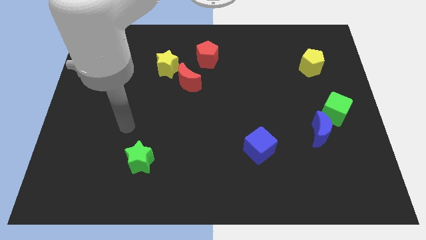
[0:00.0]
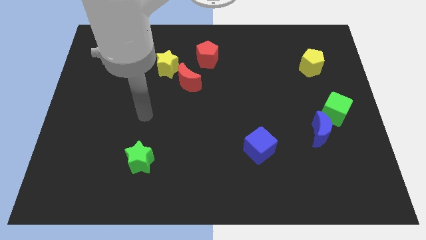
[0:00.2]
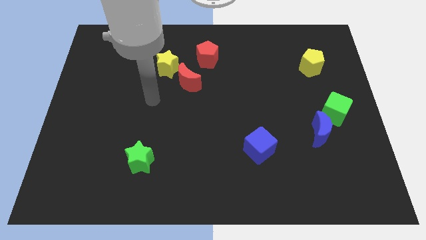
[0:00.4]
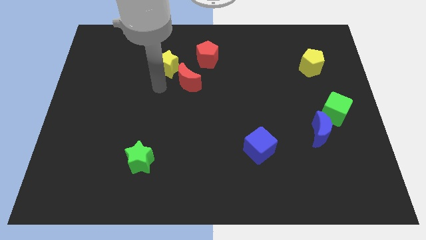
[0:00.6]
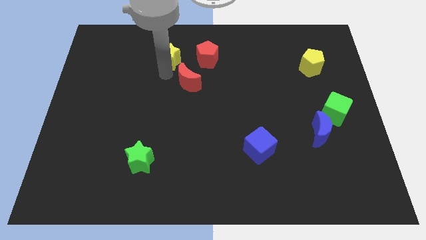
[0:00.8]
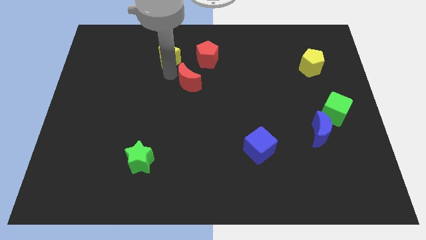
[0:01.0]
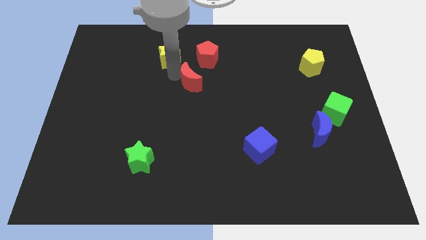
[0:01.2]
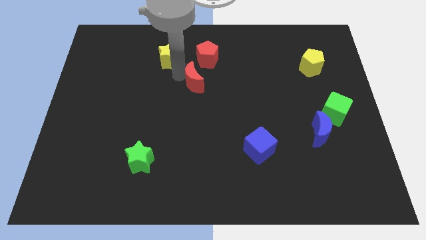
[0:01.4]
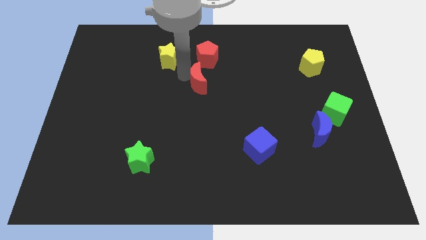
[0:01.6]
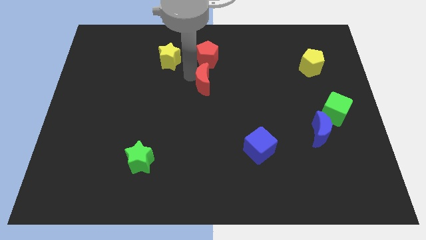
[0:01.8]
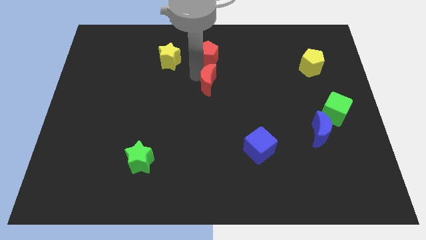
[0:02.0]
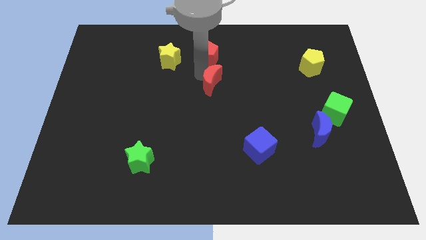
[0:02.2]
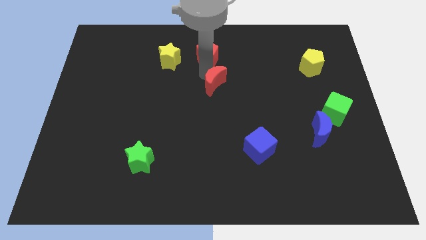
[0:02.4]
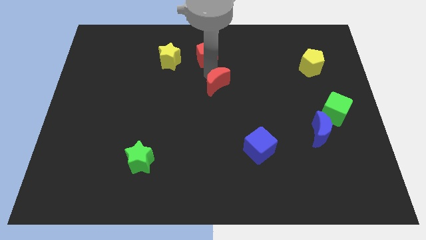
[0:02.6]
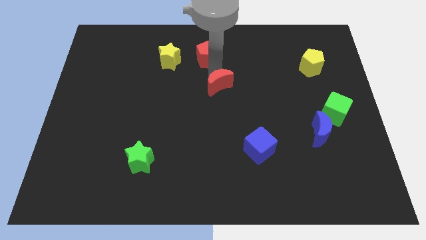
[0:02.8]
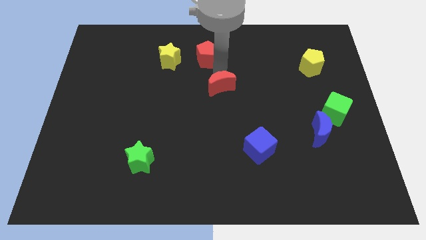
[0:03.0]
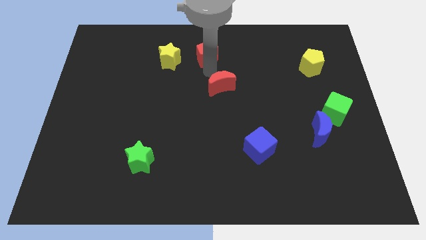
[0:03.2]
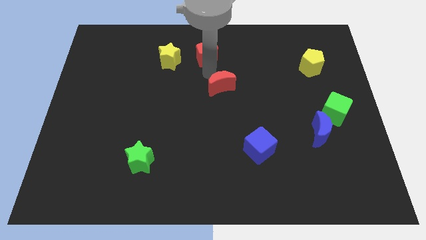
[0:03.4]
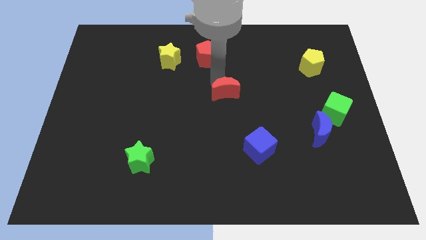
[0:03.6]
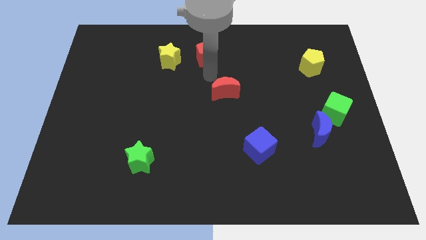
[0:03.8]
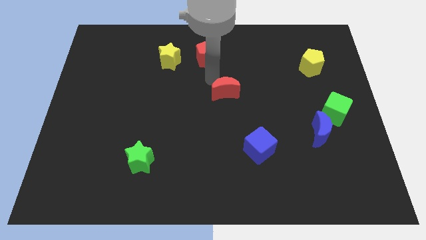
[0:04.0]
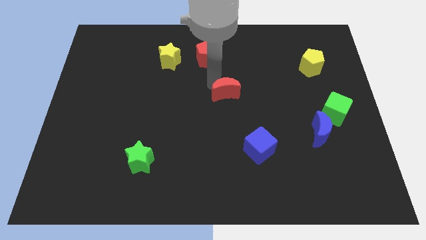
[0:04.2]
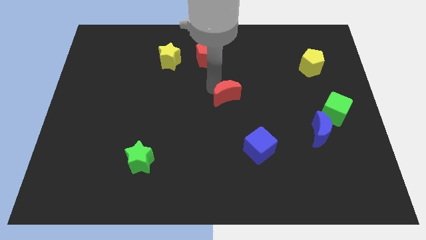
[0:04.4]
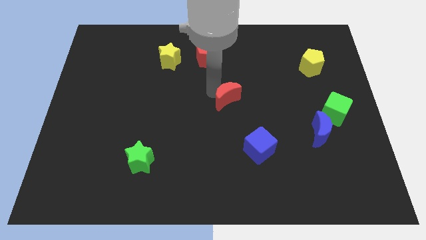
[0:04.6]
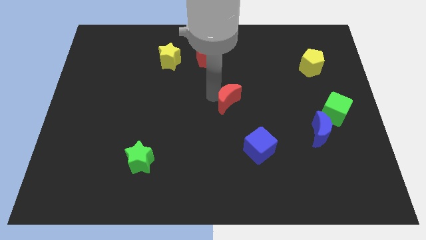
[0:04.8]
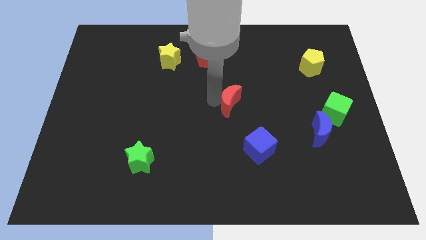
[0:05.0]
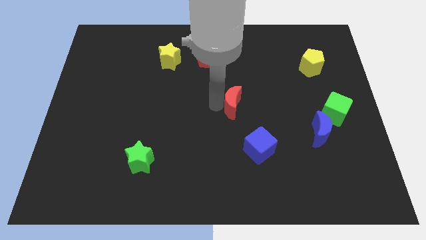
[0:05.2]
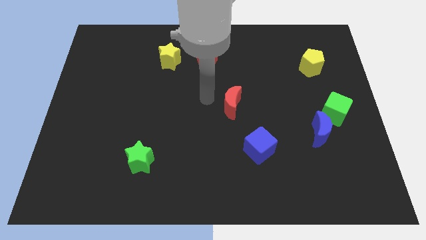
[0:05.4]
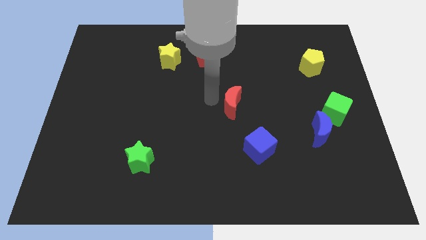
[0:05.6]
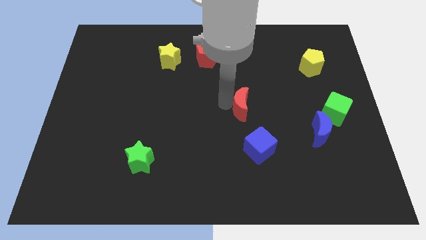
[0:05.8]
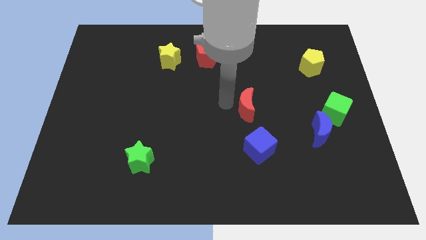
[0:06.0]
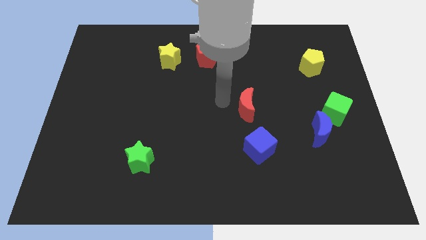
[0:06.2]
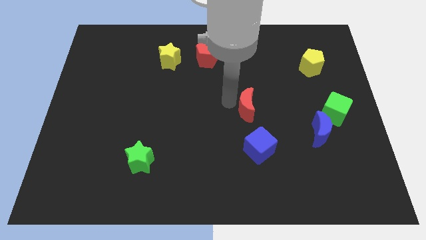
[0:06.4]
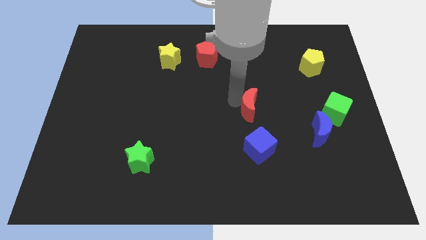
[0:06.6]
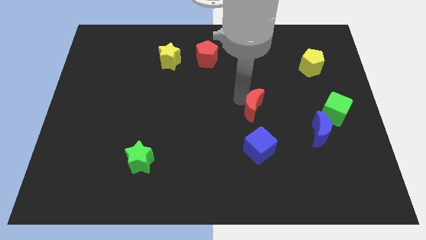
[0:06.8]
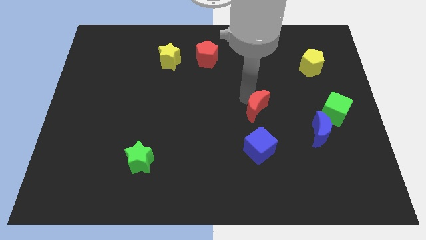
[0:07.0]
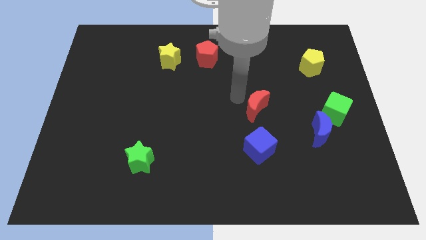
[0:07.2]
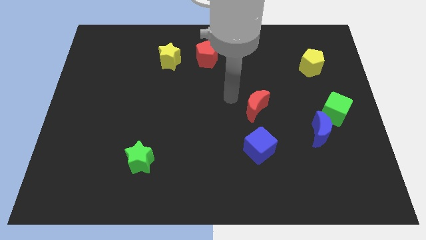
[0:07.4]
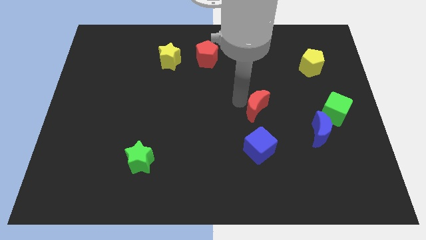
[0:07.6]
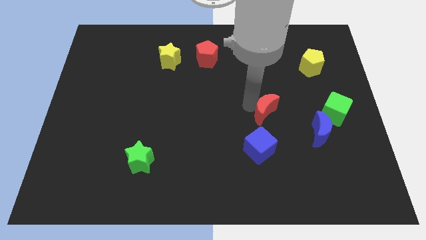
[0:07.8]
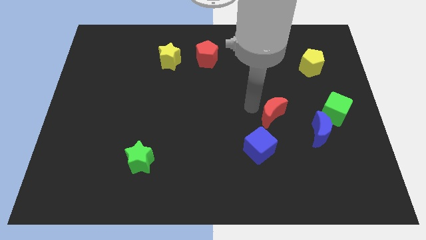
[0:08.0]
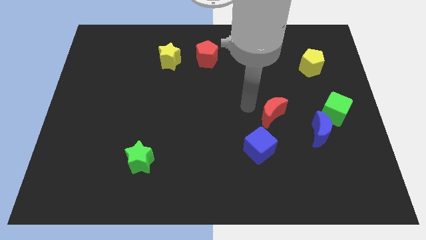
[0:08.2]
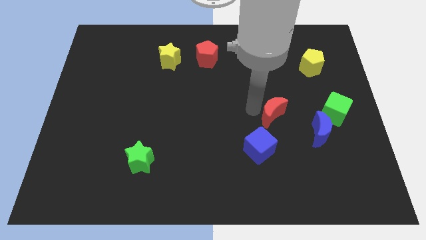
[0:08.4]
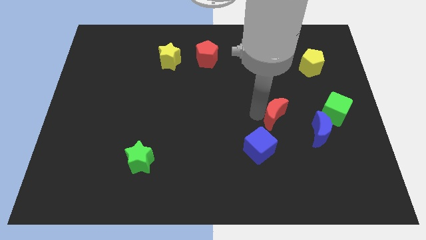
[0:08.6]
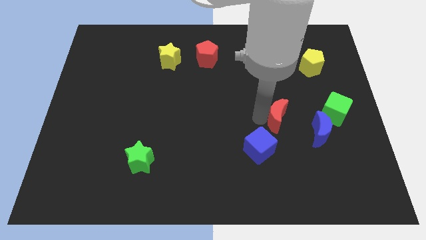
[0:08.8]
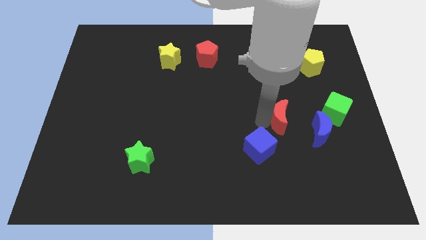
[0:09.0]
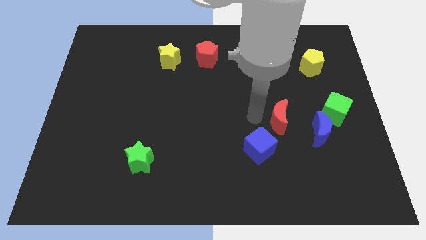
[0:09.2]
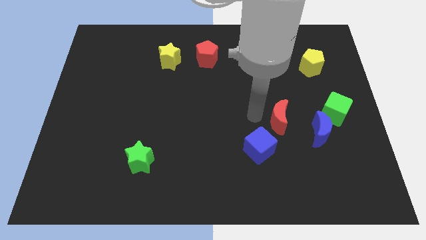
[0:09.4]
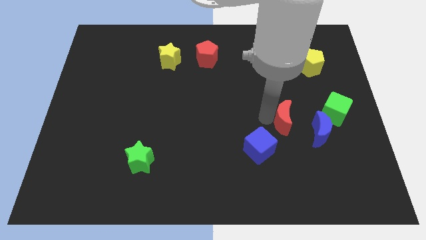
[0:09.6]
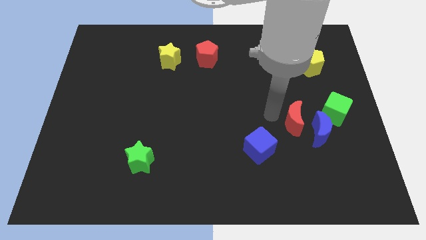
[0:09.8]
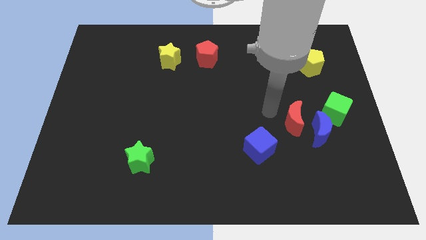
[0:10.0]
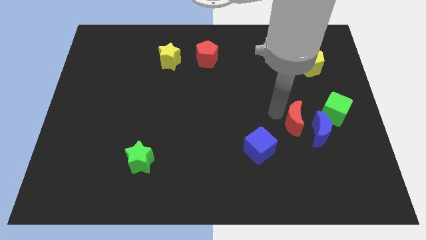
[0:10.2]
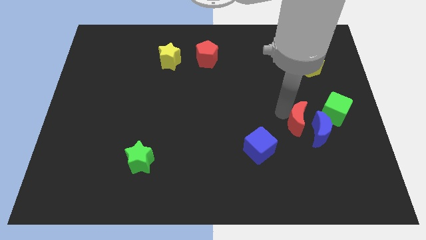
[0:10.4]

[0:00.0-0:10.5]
push the red moon to the blue moon

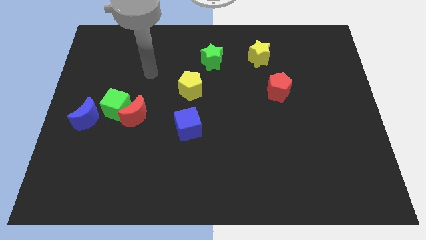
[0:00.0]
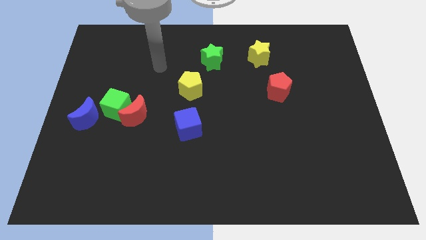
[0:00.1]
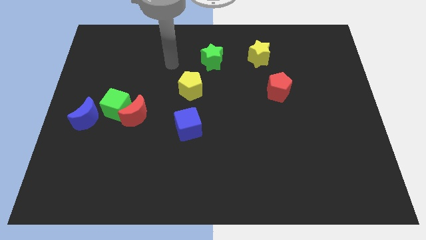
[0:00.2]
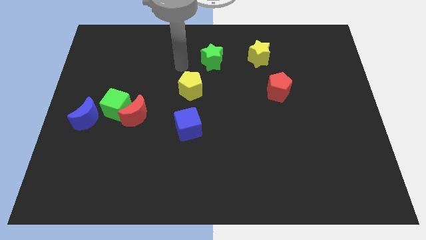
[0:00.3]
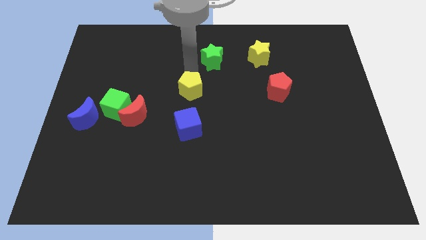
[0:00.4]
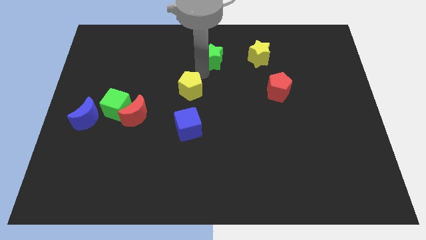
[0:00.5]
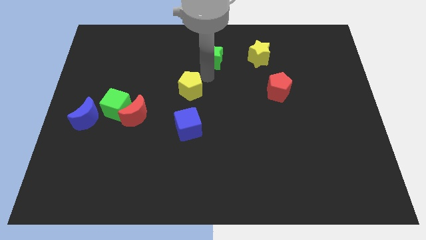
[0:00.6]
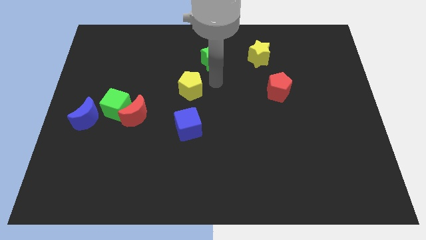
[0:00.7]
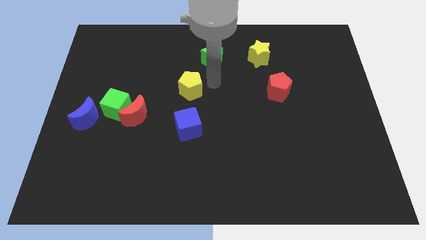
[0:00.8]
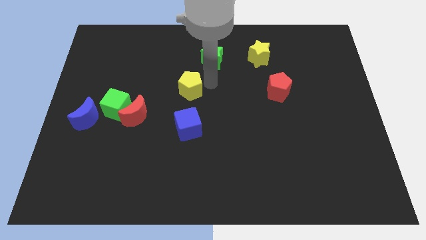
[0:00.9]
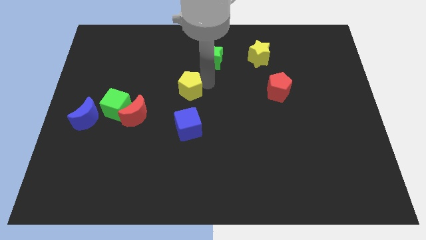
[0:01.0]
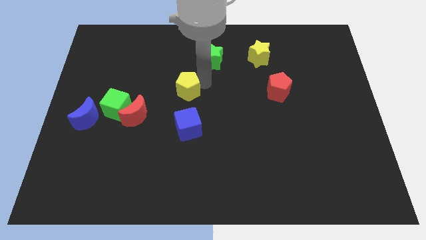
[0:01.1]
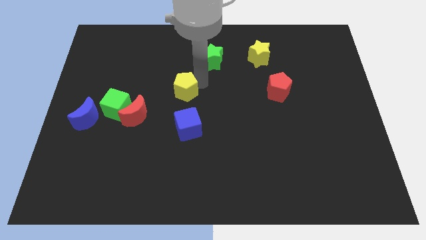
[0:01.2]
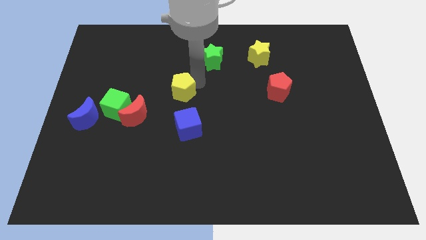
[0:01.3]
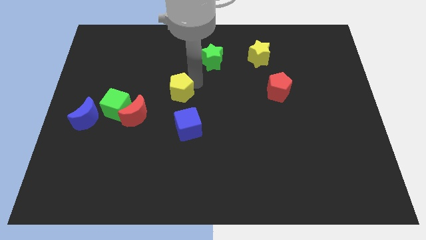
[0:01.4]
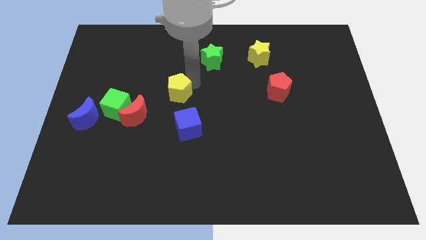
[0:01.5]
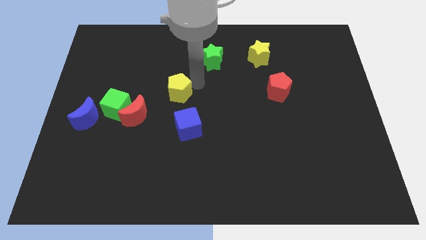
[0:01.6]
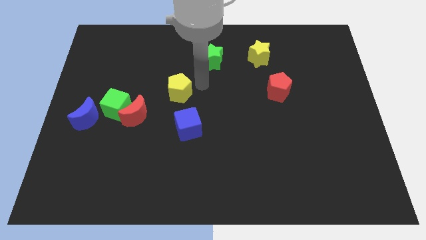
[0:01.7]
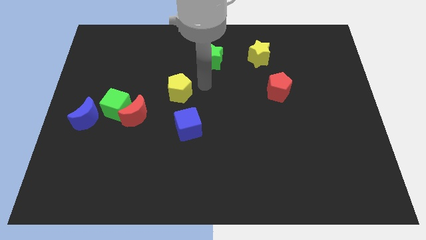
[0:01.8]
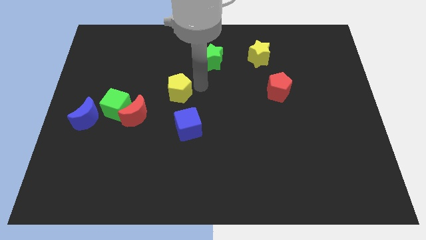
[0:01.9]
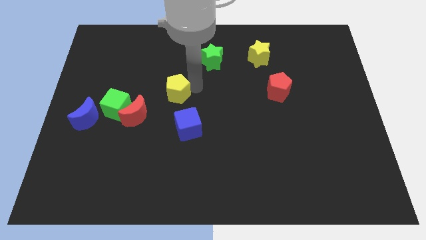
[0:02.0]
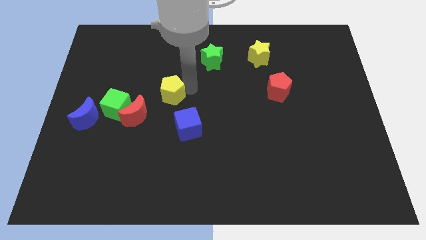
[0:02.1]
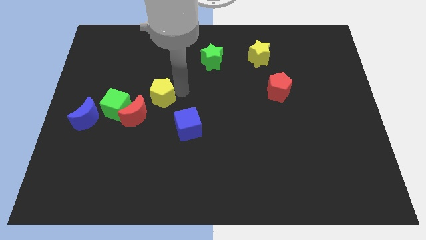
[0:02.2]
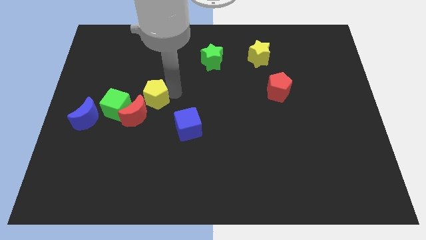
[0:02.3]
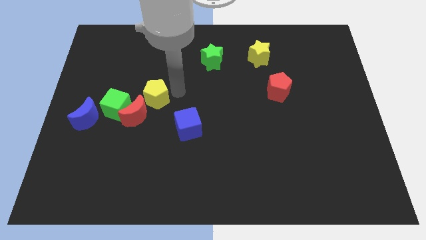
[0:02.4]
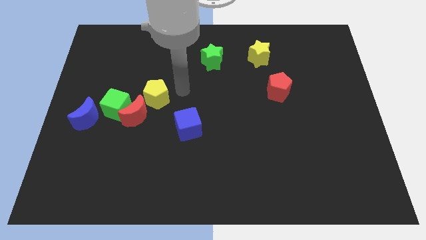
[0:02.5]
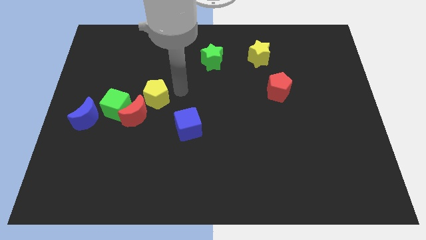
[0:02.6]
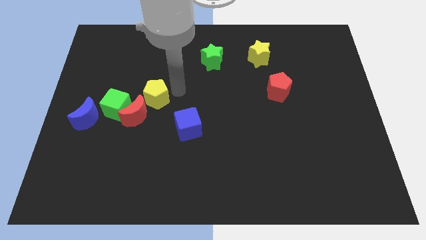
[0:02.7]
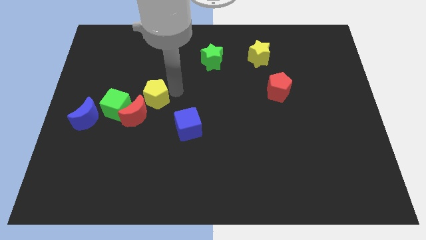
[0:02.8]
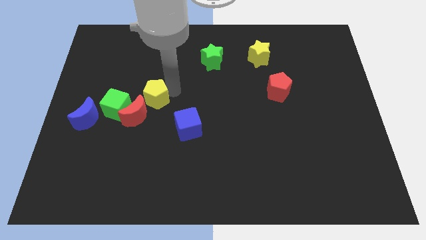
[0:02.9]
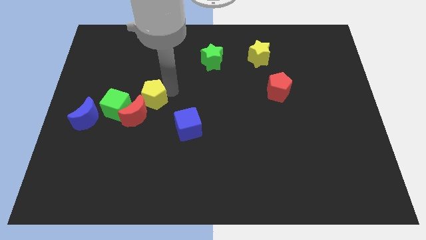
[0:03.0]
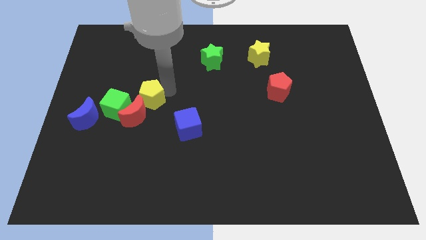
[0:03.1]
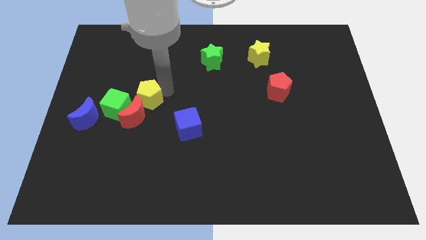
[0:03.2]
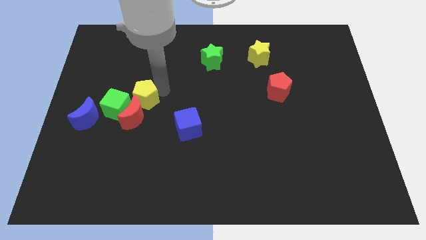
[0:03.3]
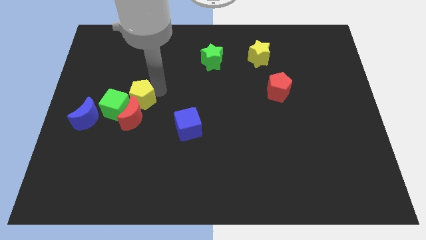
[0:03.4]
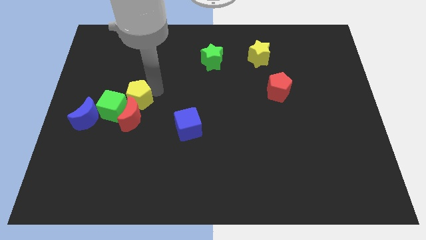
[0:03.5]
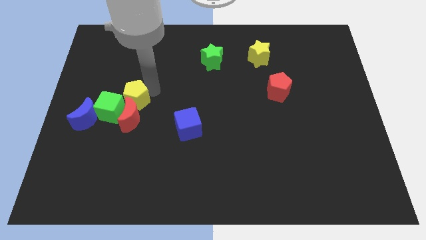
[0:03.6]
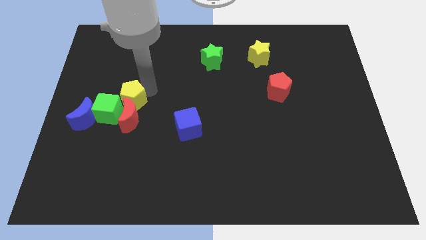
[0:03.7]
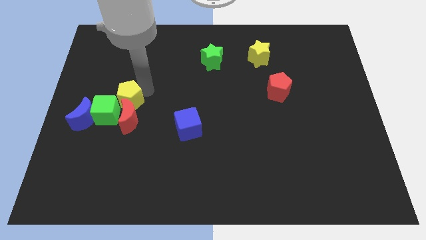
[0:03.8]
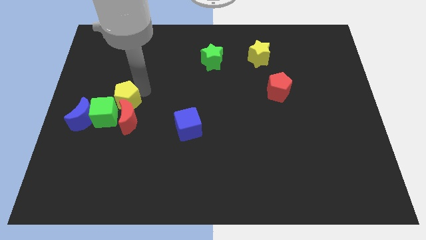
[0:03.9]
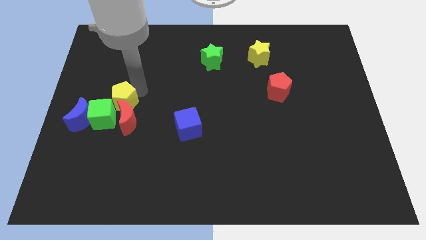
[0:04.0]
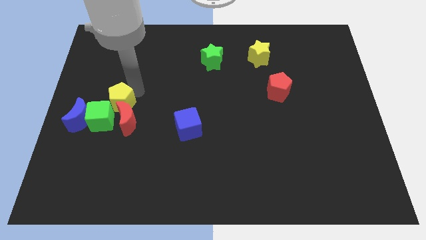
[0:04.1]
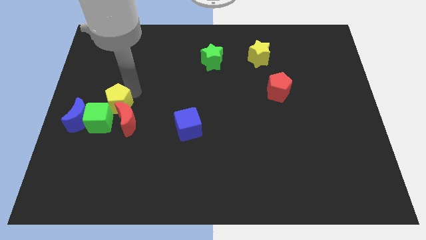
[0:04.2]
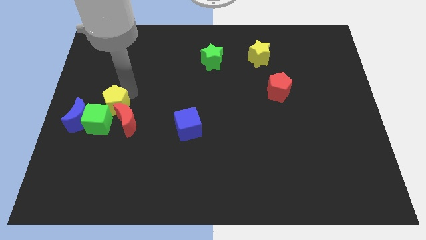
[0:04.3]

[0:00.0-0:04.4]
move the yellow pentagon next to the green cube
